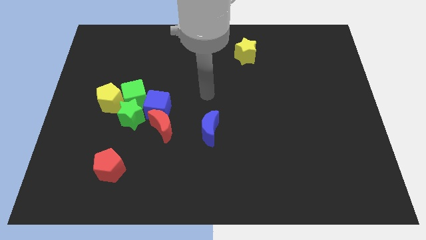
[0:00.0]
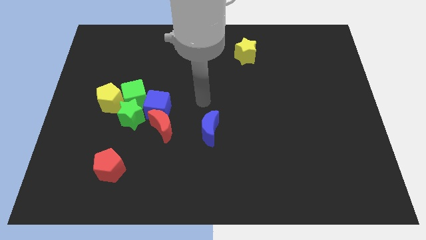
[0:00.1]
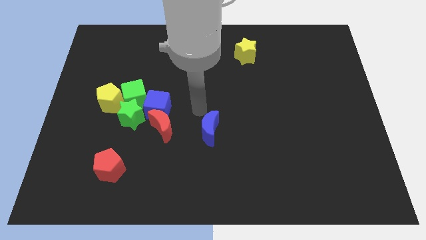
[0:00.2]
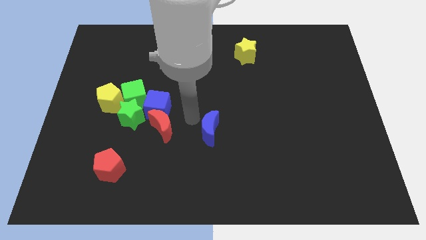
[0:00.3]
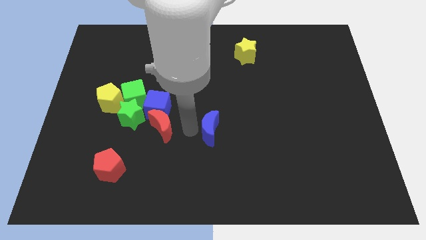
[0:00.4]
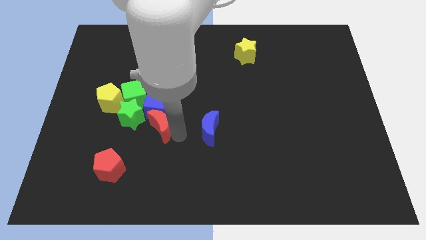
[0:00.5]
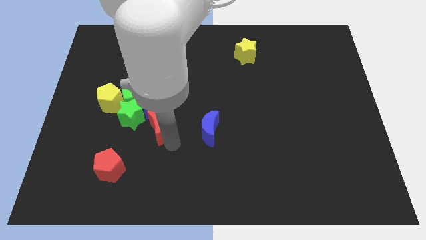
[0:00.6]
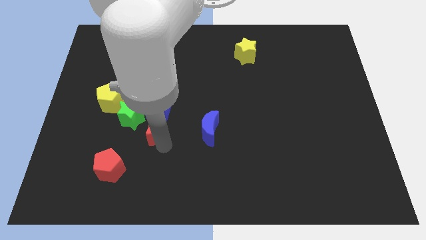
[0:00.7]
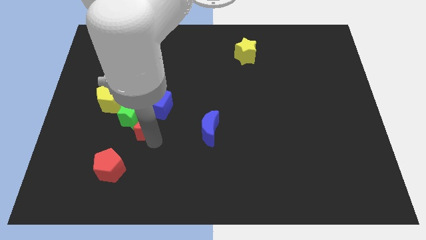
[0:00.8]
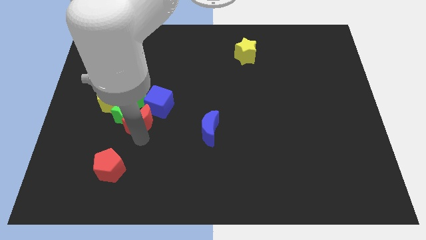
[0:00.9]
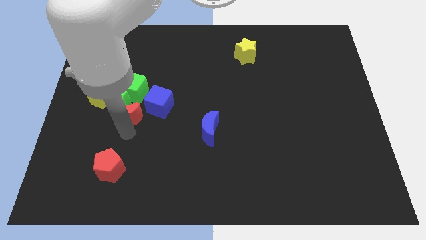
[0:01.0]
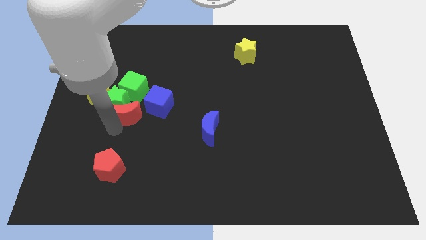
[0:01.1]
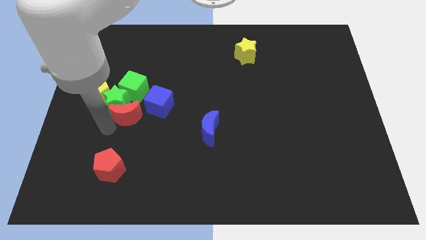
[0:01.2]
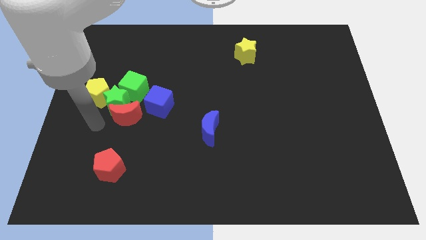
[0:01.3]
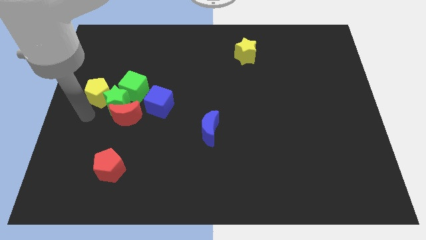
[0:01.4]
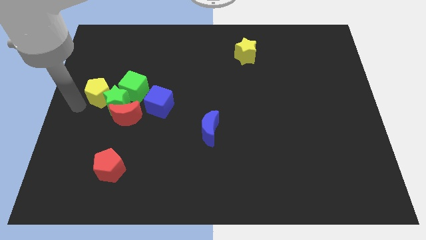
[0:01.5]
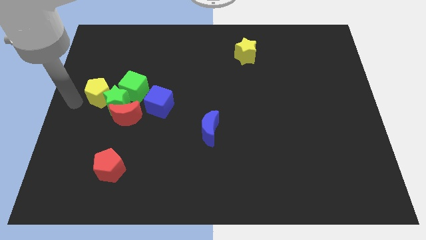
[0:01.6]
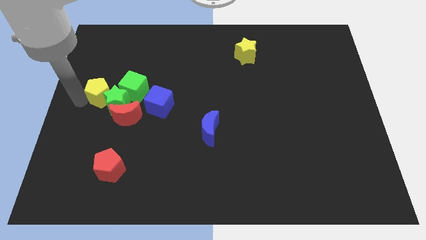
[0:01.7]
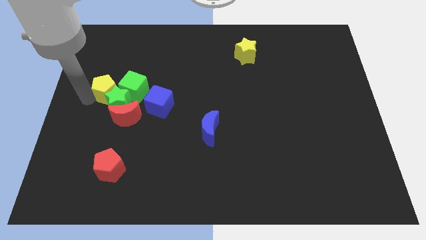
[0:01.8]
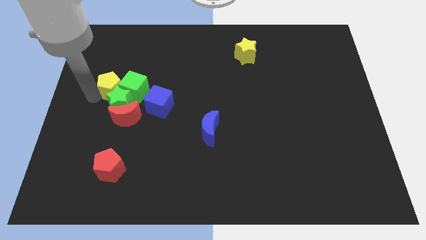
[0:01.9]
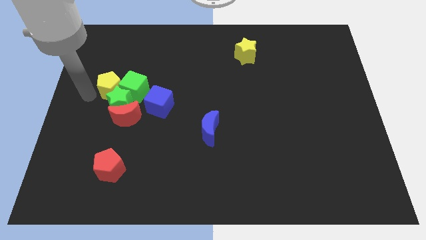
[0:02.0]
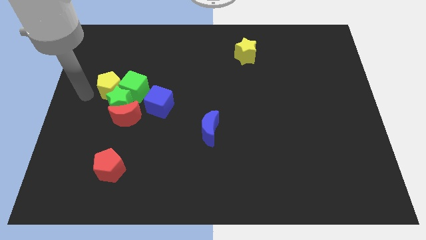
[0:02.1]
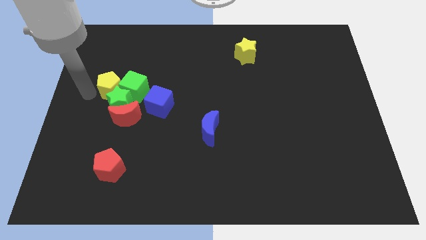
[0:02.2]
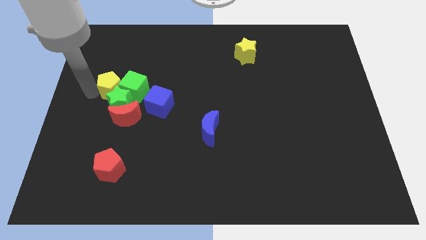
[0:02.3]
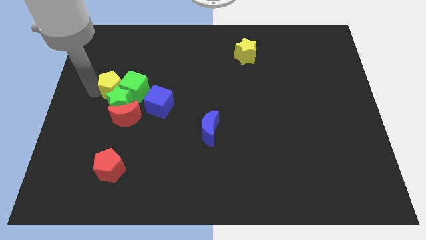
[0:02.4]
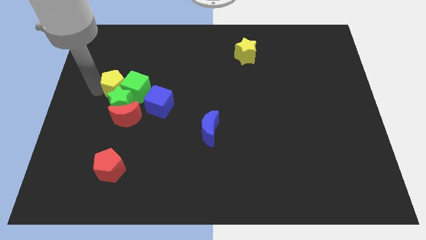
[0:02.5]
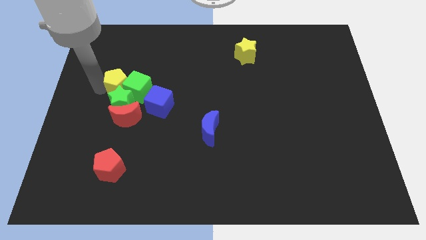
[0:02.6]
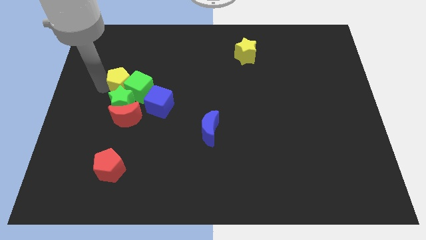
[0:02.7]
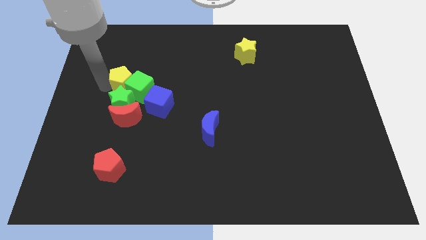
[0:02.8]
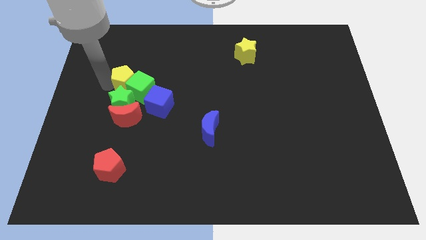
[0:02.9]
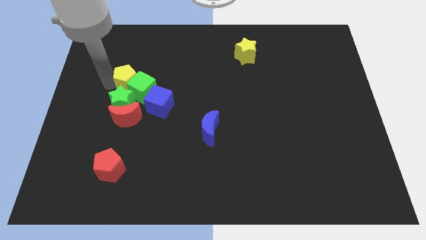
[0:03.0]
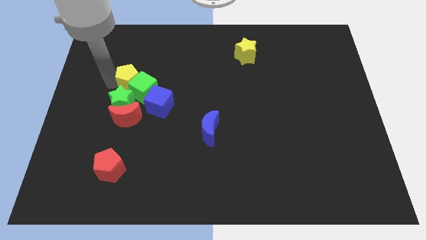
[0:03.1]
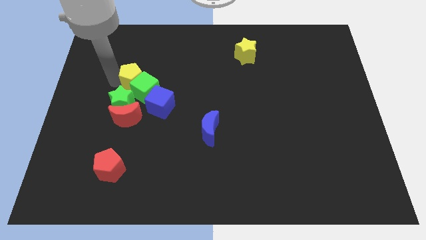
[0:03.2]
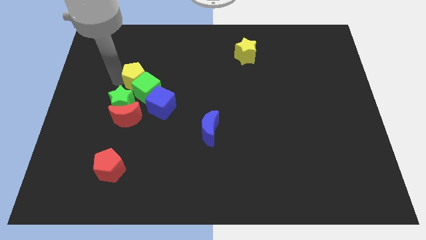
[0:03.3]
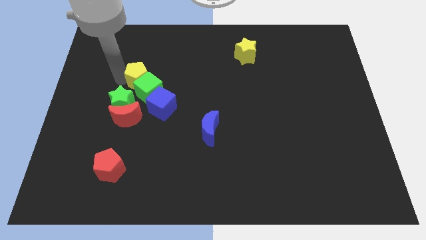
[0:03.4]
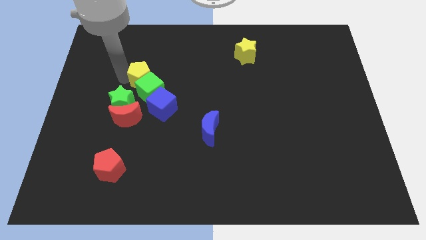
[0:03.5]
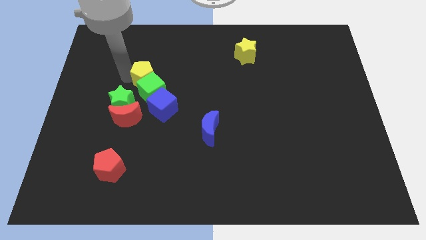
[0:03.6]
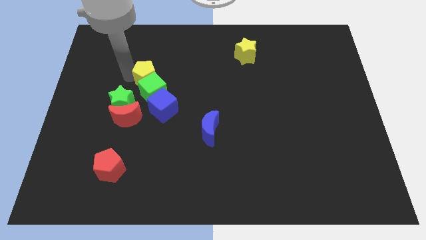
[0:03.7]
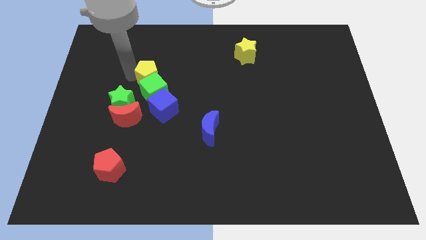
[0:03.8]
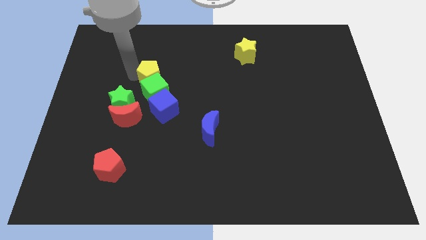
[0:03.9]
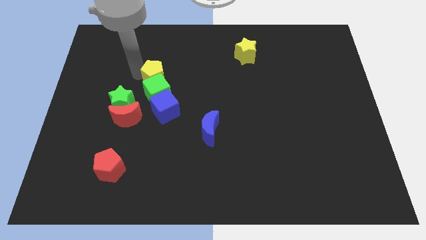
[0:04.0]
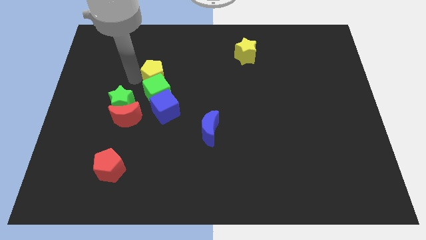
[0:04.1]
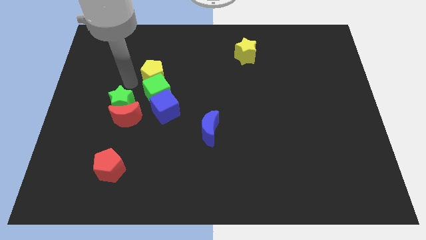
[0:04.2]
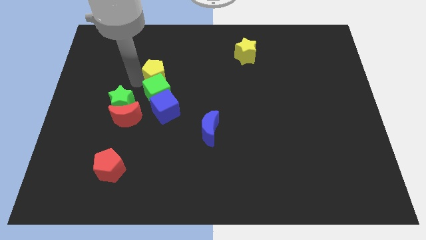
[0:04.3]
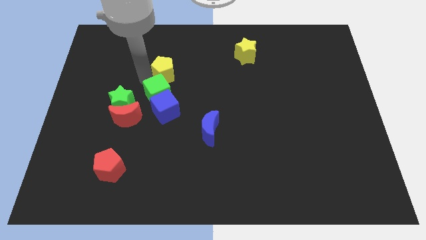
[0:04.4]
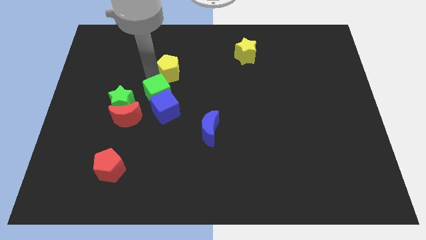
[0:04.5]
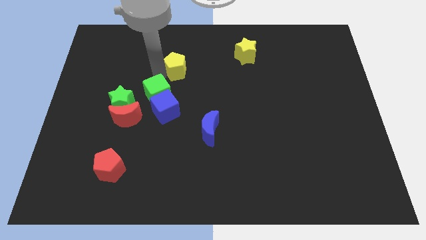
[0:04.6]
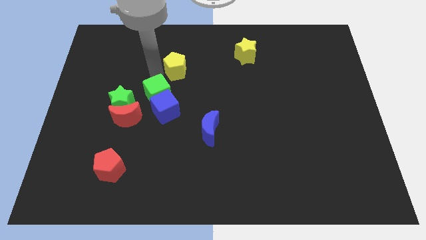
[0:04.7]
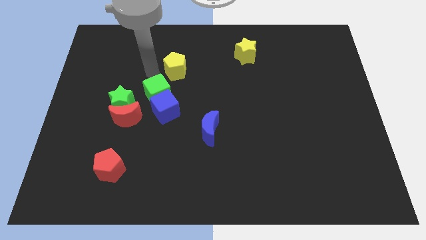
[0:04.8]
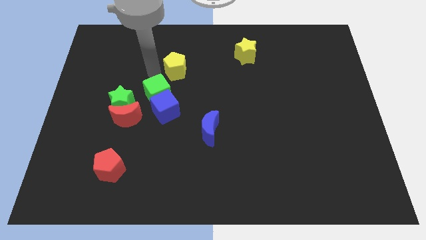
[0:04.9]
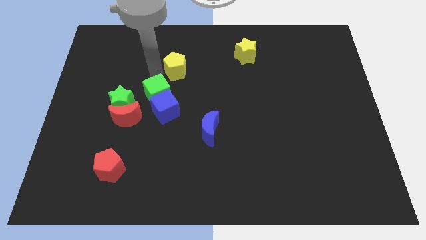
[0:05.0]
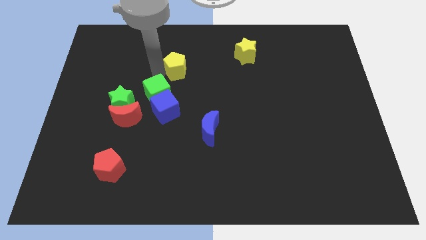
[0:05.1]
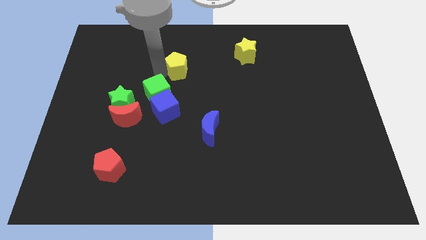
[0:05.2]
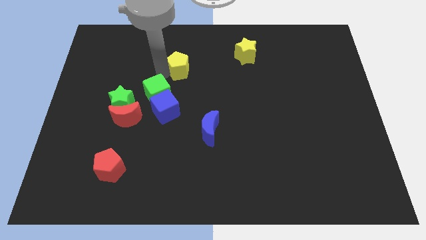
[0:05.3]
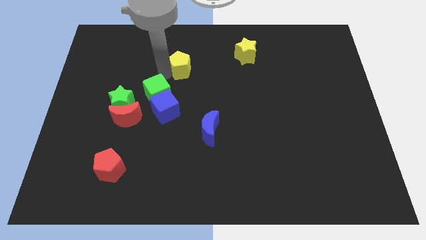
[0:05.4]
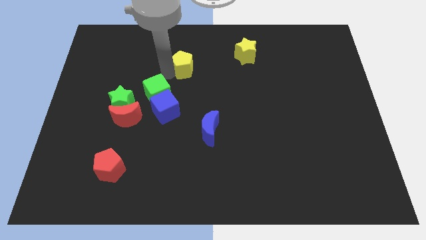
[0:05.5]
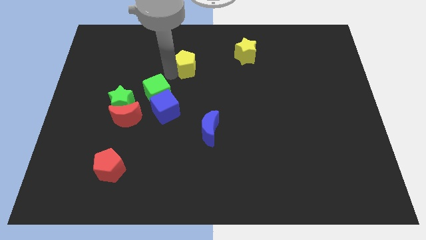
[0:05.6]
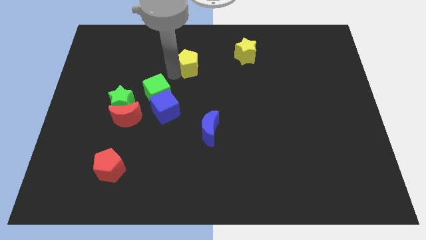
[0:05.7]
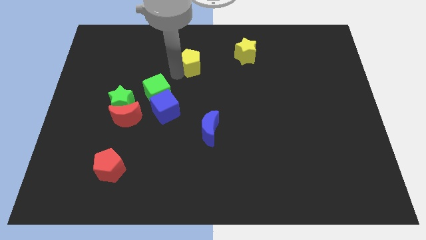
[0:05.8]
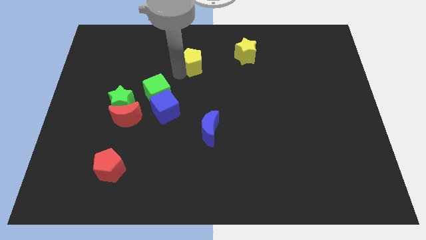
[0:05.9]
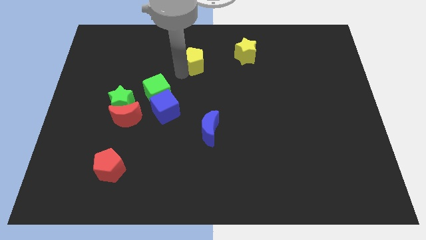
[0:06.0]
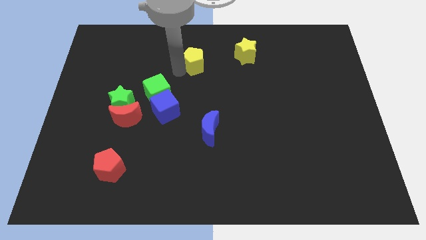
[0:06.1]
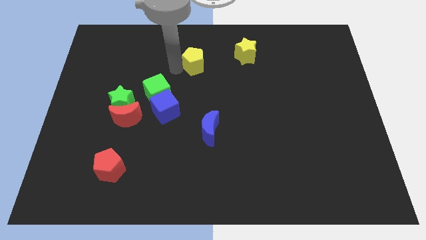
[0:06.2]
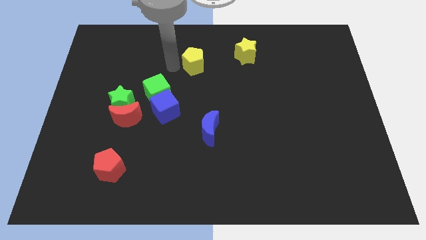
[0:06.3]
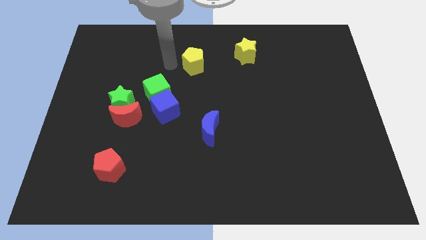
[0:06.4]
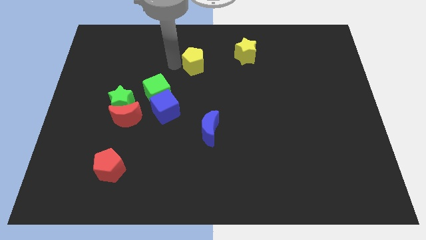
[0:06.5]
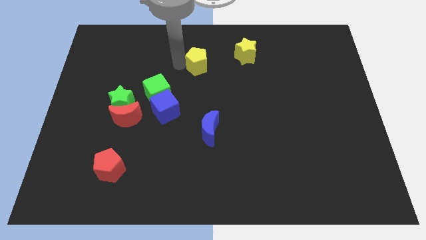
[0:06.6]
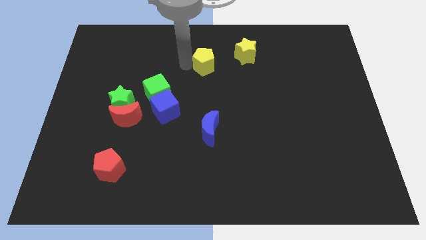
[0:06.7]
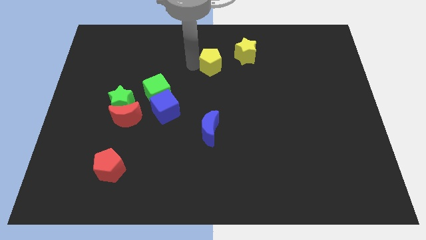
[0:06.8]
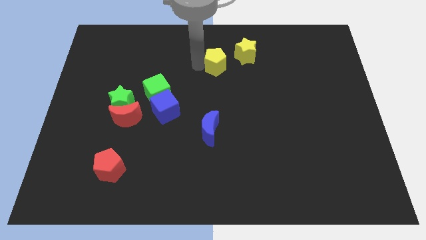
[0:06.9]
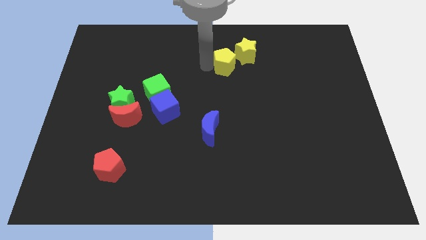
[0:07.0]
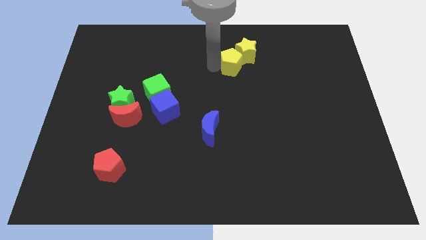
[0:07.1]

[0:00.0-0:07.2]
slide the yellow pentagon towards the yellow star
